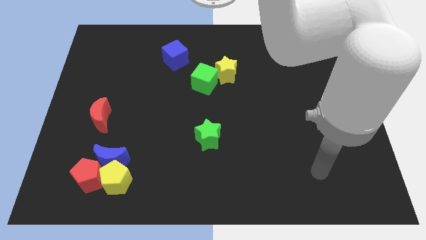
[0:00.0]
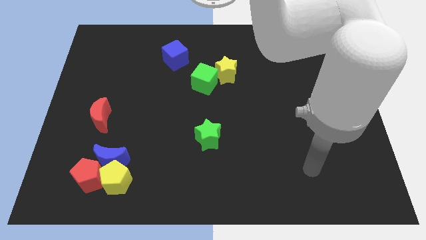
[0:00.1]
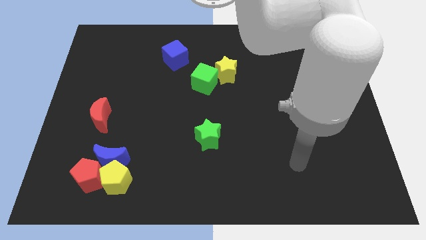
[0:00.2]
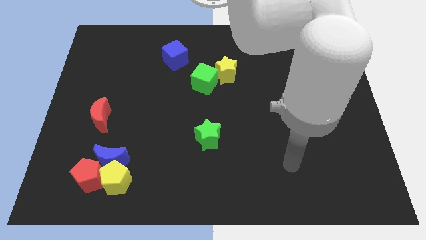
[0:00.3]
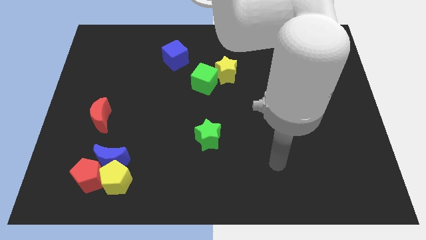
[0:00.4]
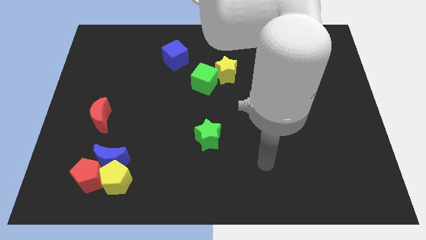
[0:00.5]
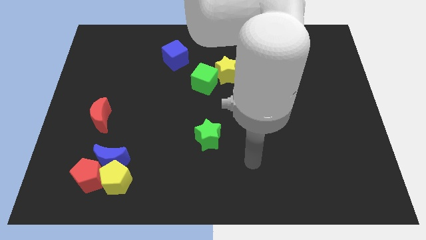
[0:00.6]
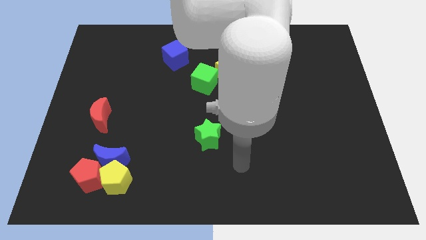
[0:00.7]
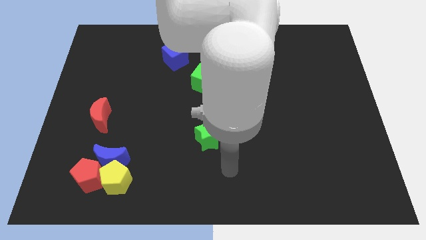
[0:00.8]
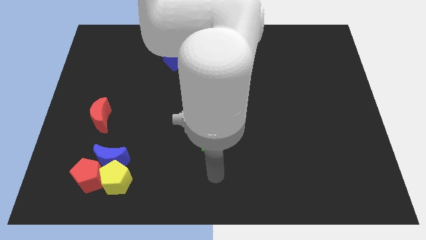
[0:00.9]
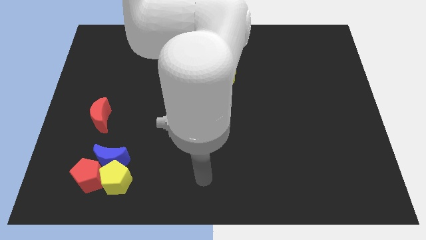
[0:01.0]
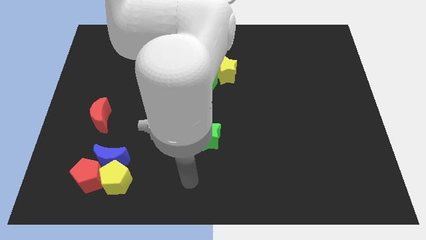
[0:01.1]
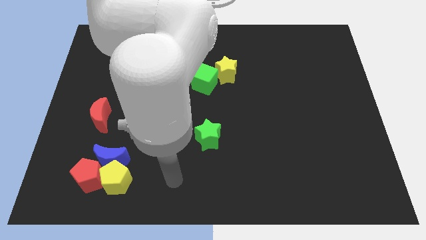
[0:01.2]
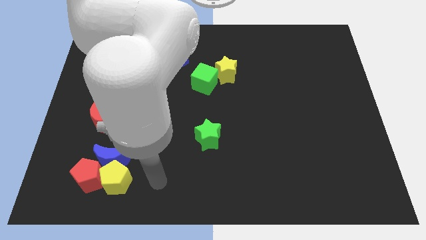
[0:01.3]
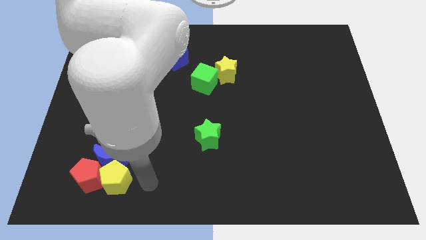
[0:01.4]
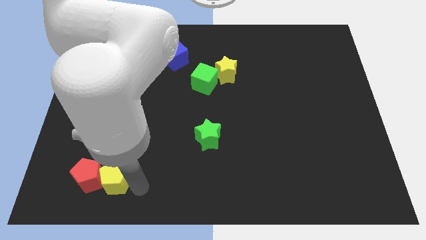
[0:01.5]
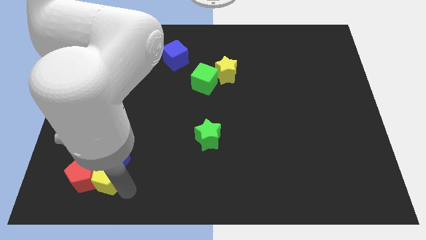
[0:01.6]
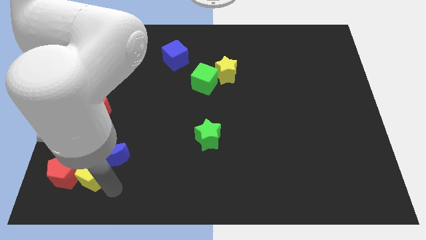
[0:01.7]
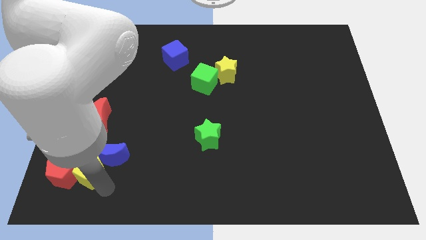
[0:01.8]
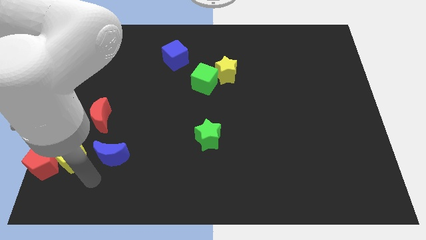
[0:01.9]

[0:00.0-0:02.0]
separate the blue moon from the yellow pentagon and red pentagon

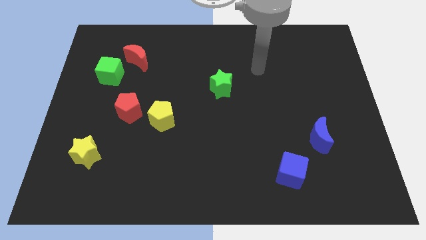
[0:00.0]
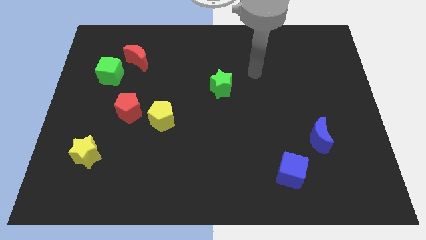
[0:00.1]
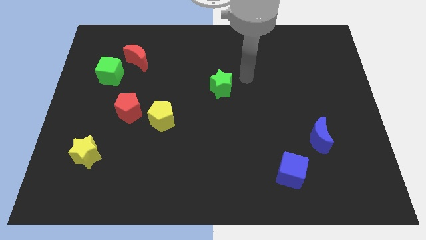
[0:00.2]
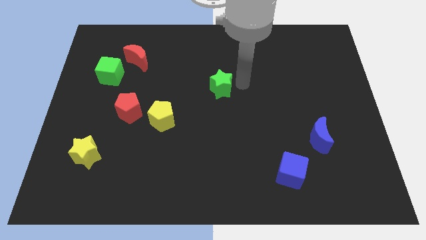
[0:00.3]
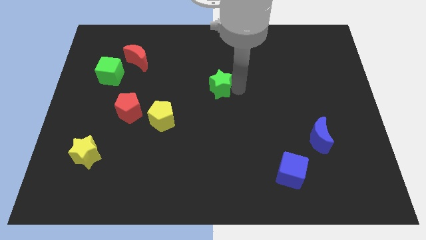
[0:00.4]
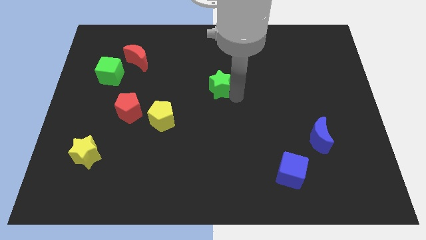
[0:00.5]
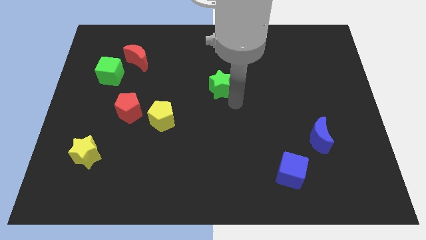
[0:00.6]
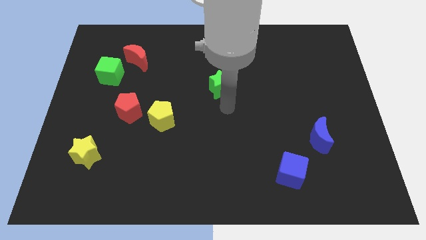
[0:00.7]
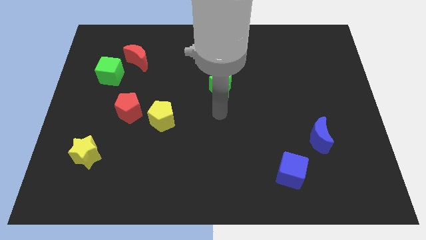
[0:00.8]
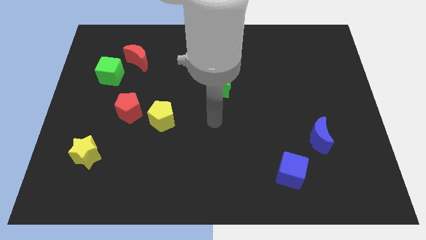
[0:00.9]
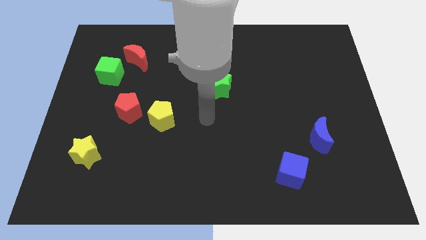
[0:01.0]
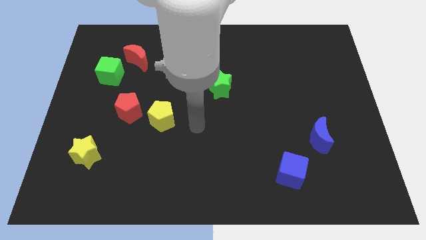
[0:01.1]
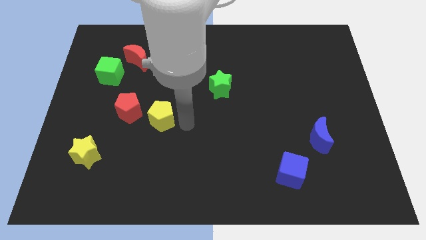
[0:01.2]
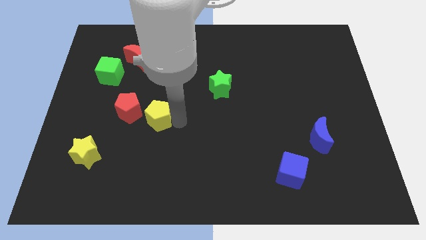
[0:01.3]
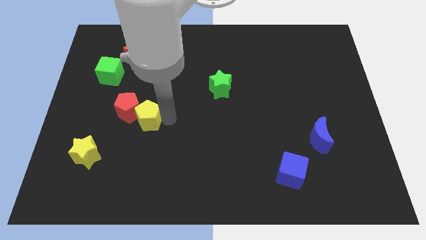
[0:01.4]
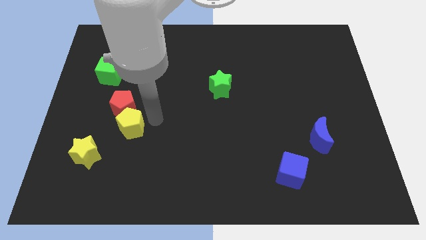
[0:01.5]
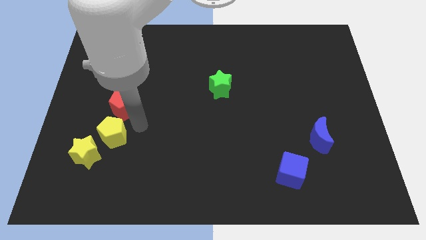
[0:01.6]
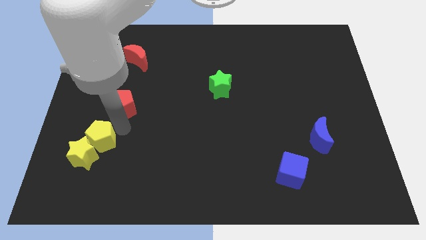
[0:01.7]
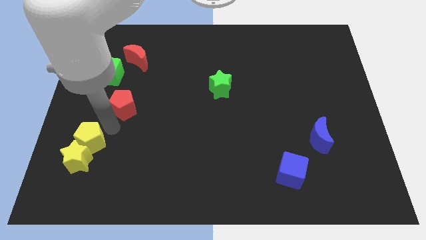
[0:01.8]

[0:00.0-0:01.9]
separate the red pentagon from the yellow pentagon

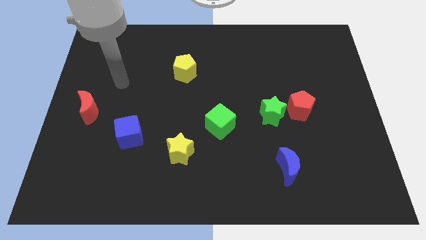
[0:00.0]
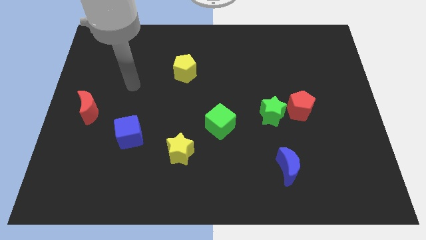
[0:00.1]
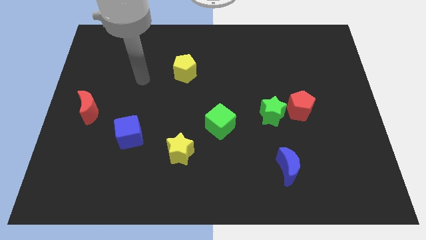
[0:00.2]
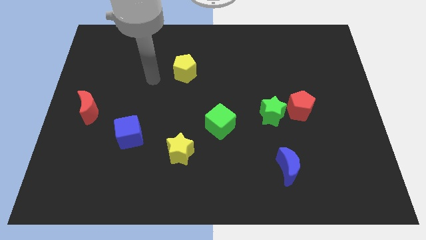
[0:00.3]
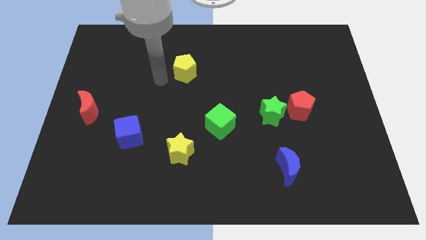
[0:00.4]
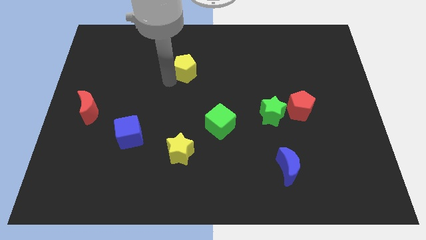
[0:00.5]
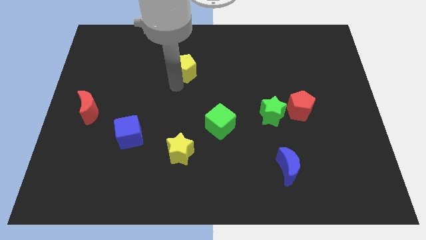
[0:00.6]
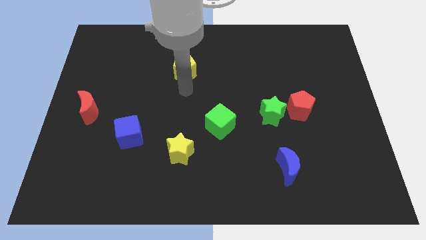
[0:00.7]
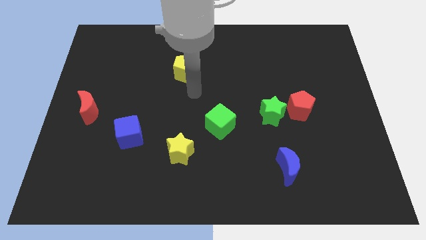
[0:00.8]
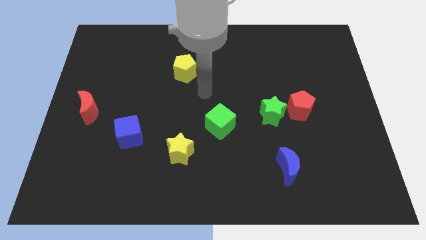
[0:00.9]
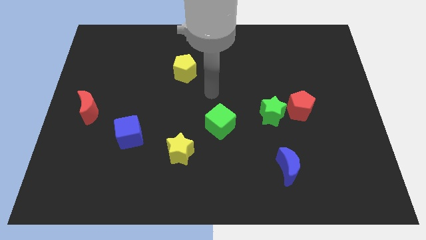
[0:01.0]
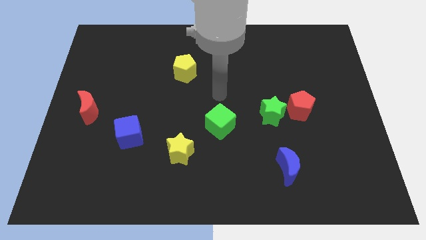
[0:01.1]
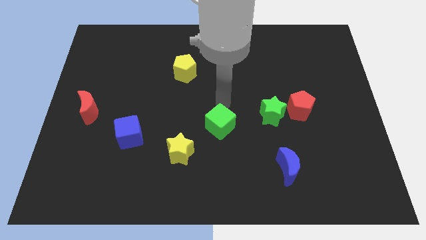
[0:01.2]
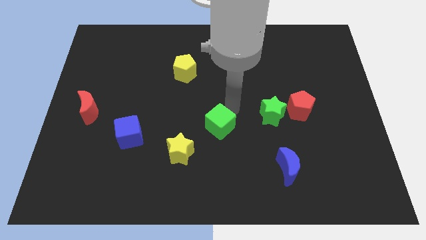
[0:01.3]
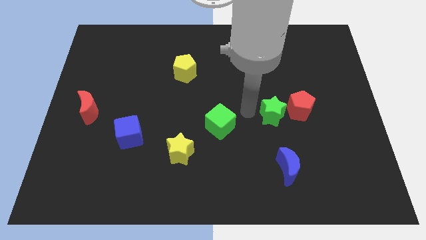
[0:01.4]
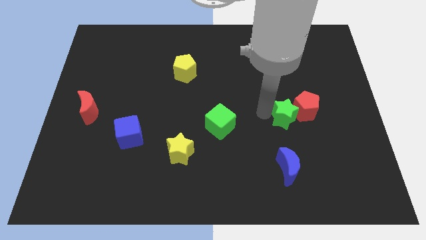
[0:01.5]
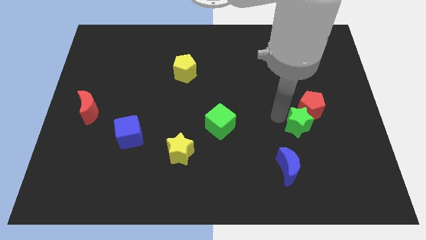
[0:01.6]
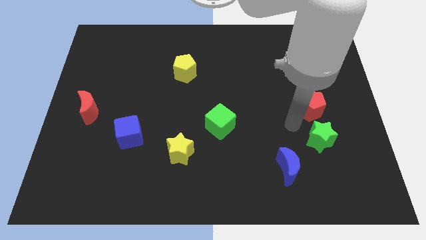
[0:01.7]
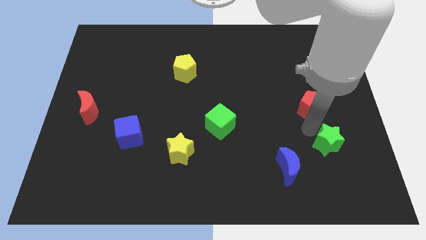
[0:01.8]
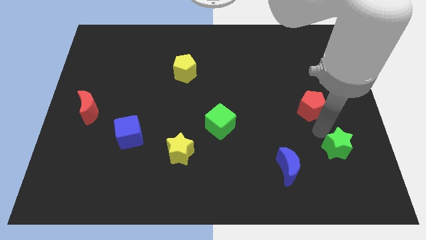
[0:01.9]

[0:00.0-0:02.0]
move the red pentagon away from the green star

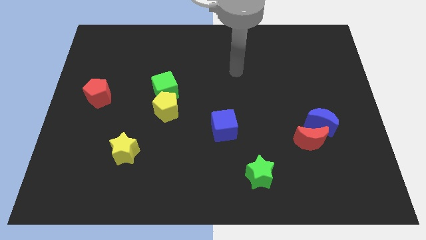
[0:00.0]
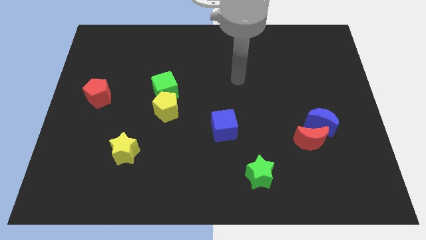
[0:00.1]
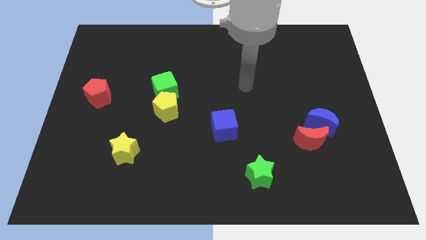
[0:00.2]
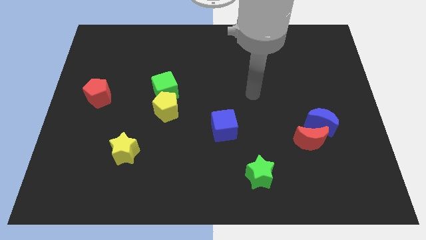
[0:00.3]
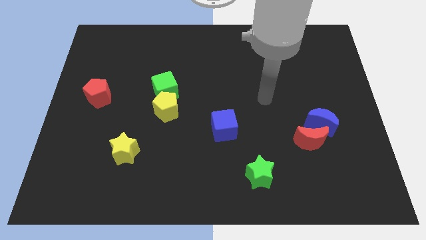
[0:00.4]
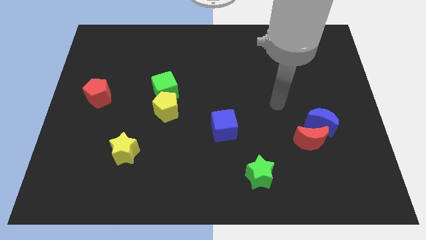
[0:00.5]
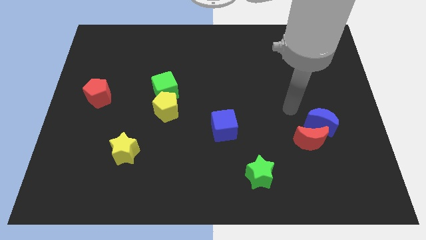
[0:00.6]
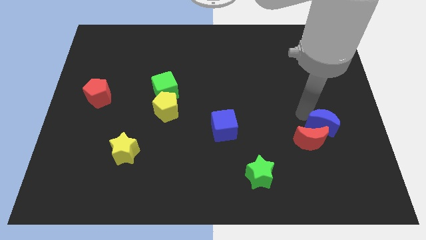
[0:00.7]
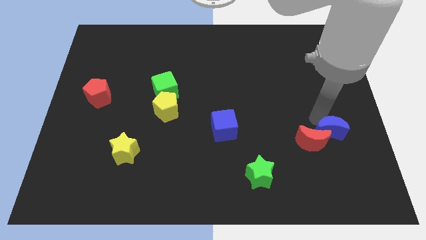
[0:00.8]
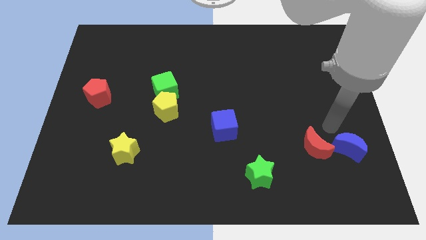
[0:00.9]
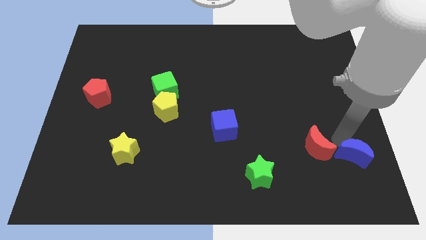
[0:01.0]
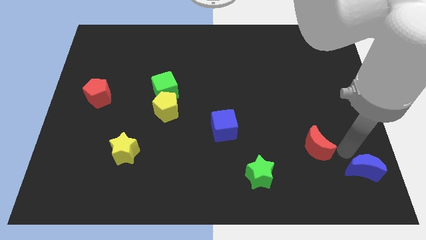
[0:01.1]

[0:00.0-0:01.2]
move the red moon away from the blue moon

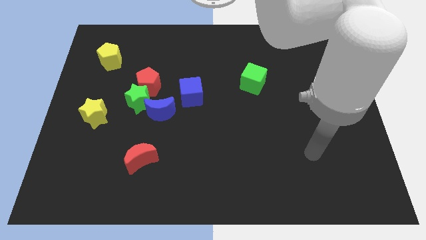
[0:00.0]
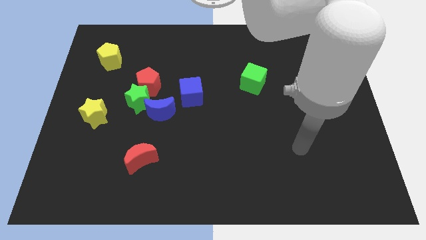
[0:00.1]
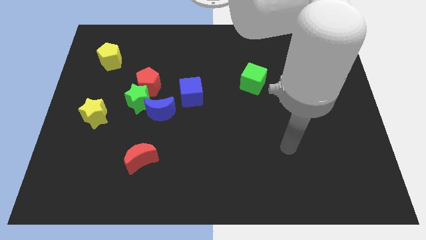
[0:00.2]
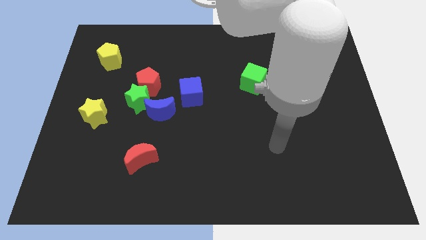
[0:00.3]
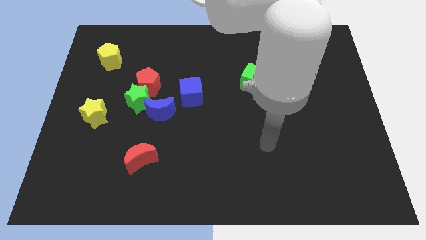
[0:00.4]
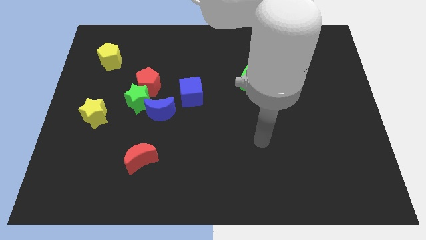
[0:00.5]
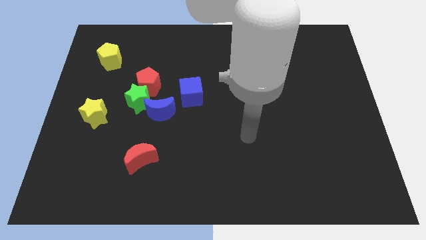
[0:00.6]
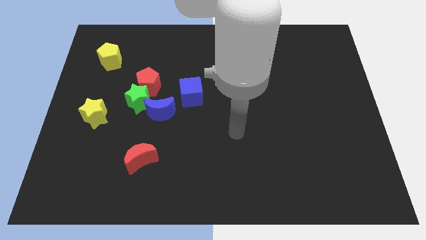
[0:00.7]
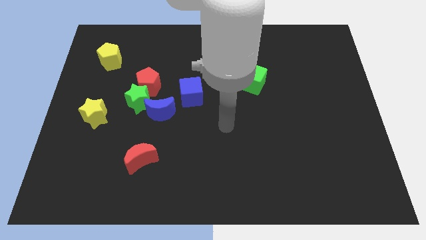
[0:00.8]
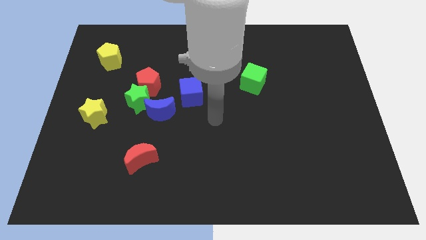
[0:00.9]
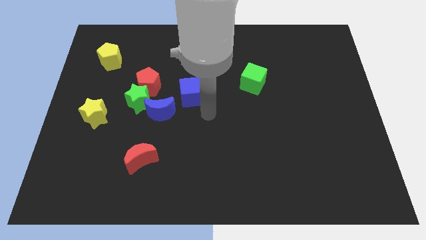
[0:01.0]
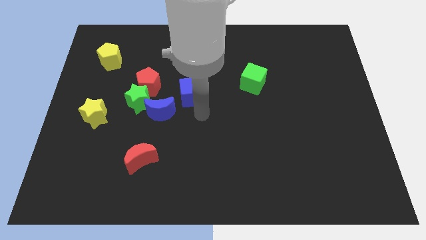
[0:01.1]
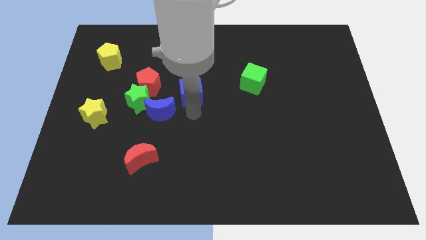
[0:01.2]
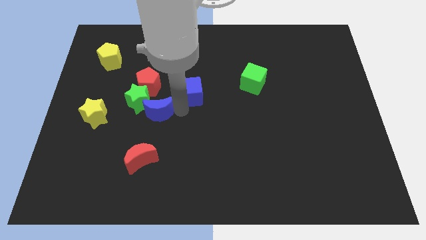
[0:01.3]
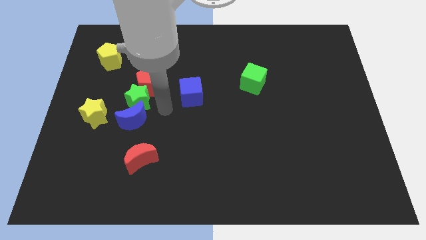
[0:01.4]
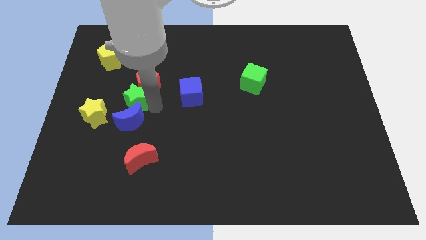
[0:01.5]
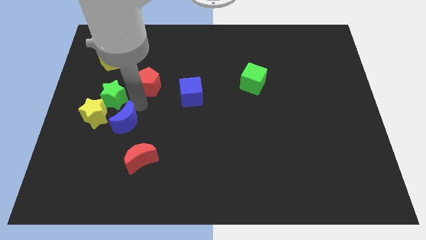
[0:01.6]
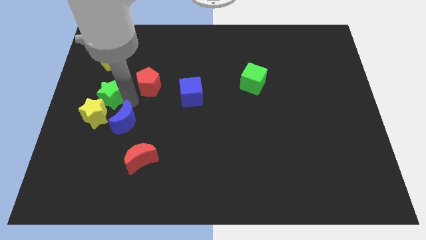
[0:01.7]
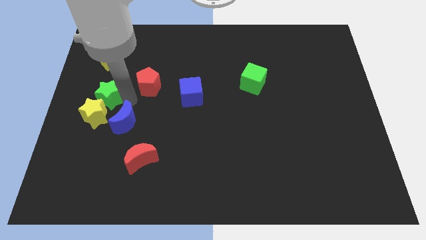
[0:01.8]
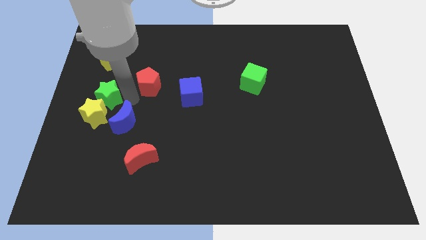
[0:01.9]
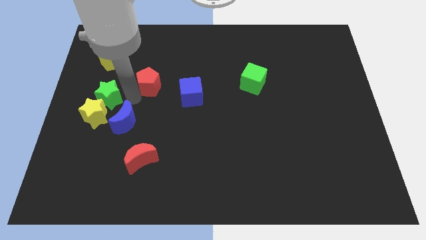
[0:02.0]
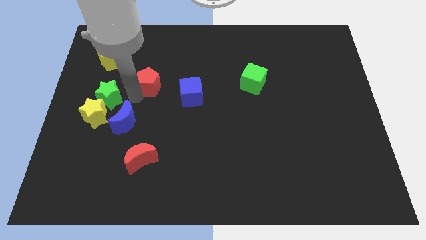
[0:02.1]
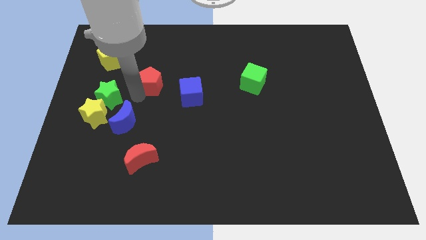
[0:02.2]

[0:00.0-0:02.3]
pull the red pentagon apart from the green star and blue moon
